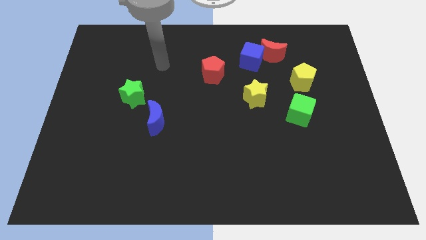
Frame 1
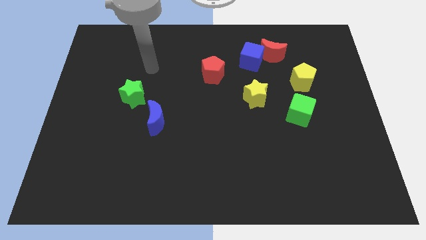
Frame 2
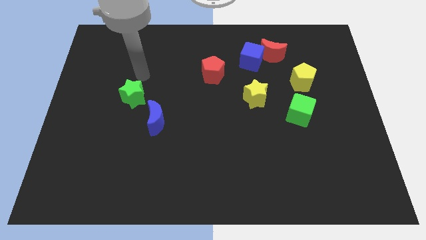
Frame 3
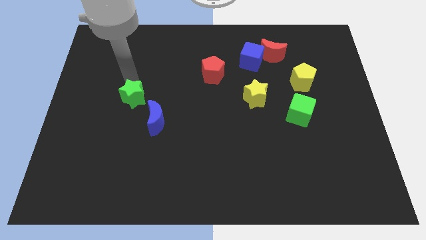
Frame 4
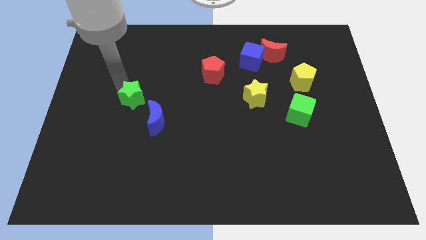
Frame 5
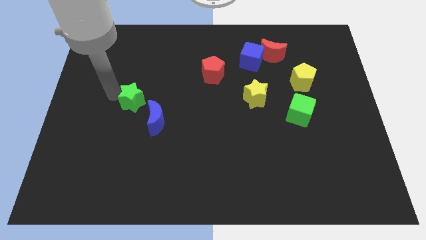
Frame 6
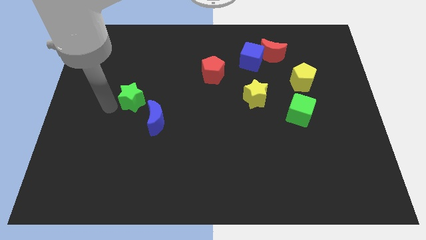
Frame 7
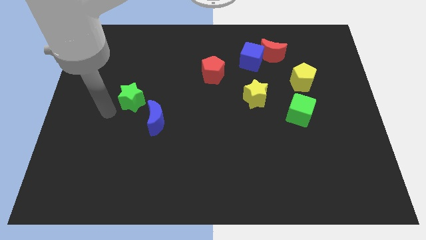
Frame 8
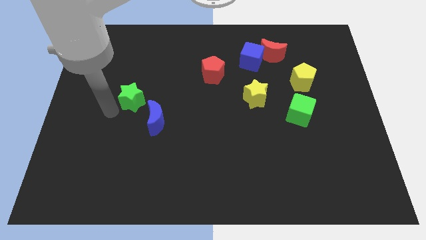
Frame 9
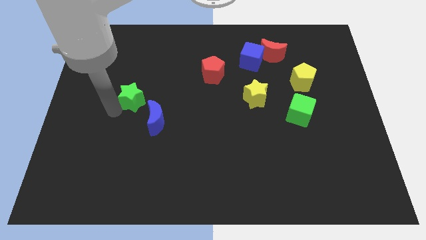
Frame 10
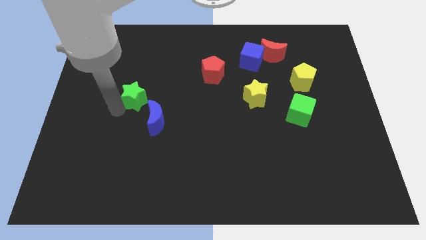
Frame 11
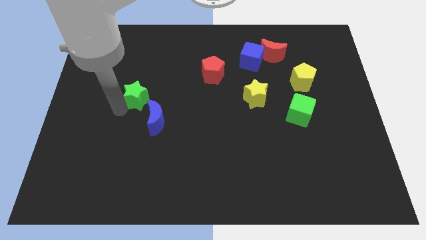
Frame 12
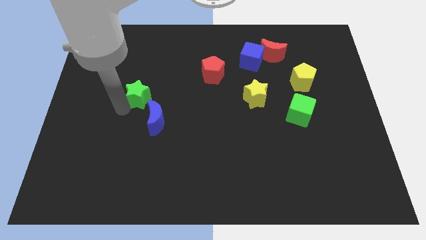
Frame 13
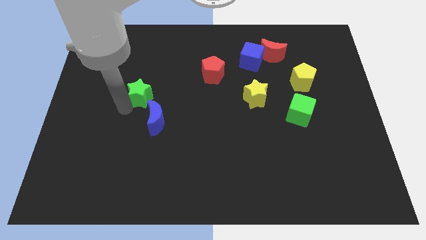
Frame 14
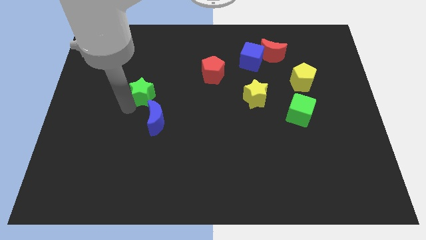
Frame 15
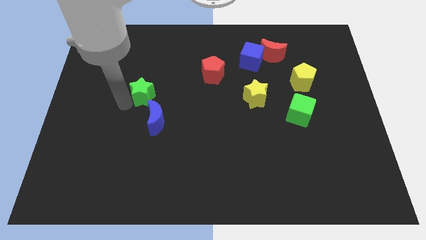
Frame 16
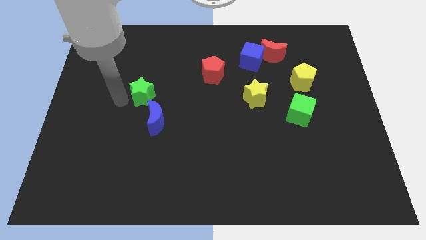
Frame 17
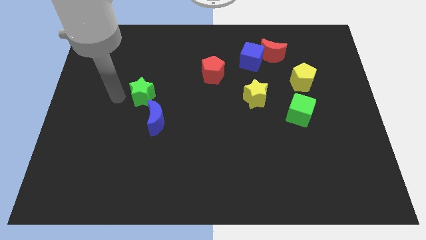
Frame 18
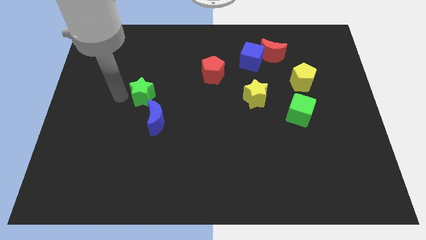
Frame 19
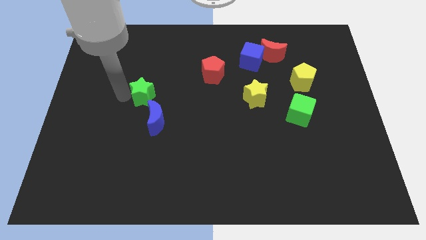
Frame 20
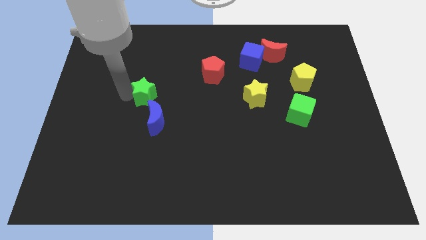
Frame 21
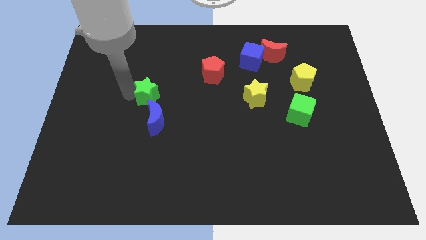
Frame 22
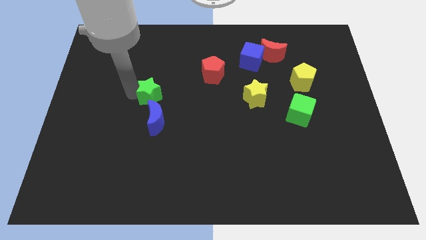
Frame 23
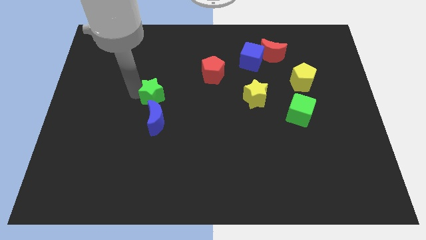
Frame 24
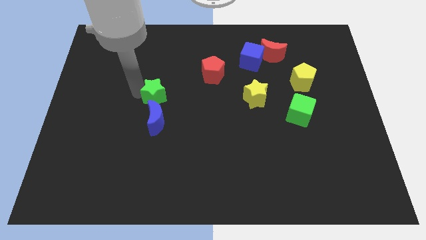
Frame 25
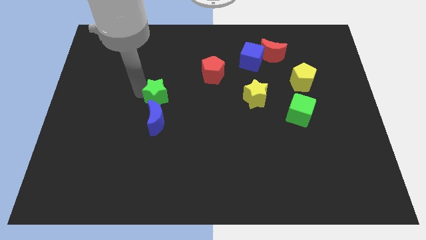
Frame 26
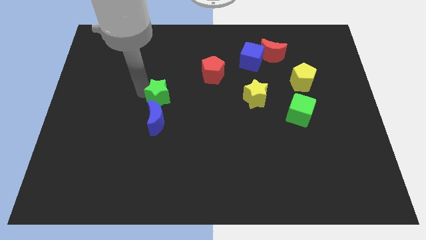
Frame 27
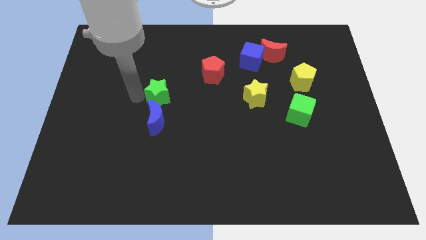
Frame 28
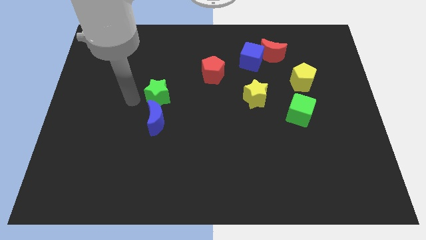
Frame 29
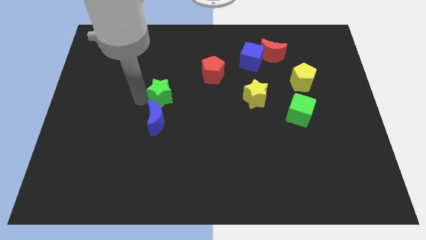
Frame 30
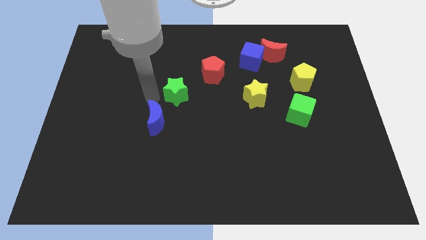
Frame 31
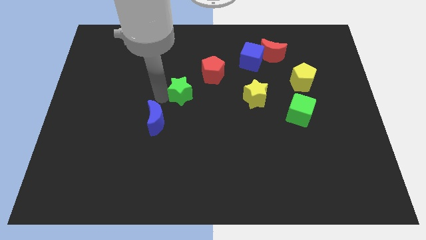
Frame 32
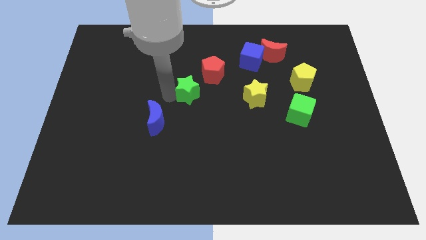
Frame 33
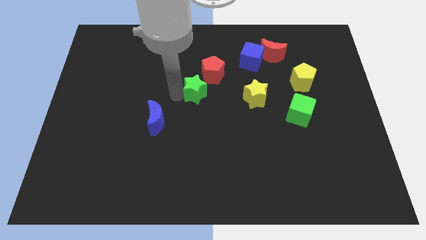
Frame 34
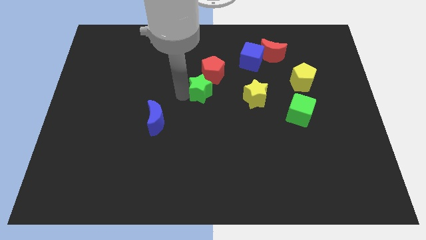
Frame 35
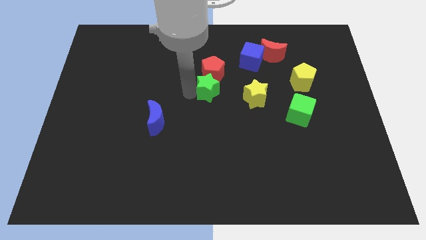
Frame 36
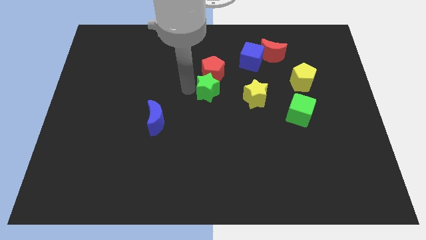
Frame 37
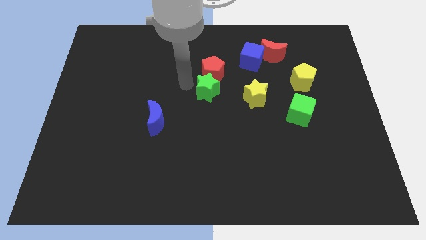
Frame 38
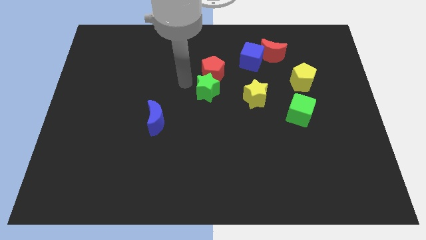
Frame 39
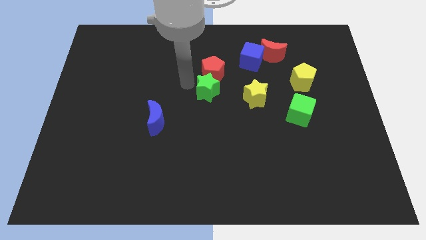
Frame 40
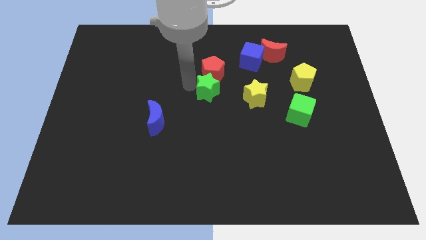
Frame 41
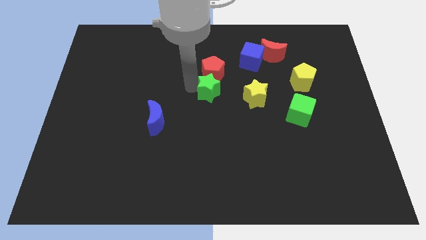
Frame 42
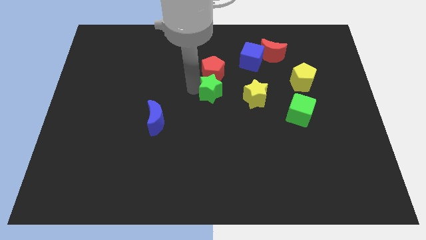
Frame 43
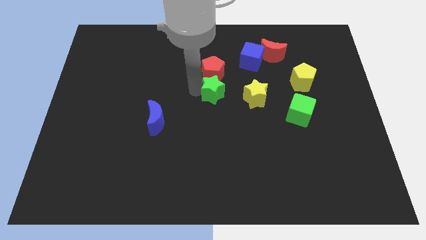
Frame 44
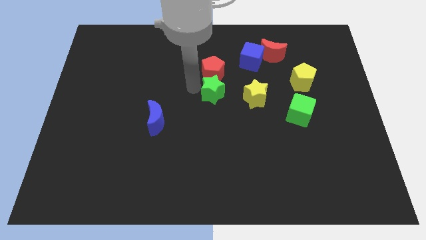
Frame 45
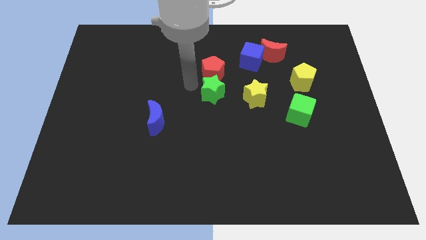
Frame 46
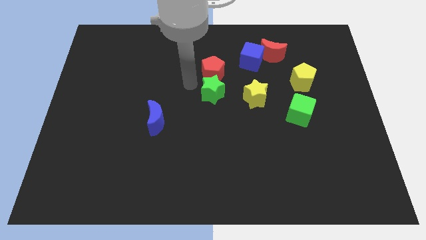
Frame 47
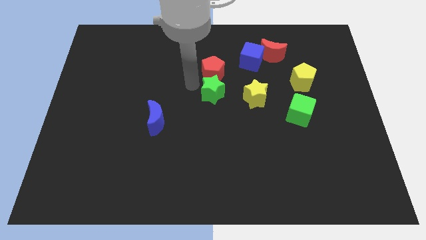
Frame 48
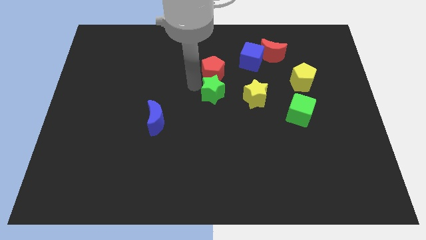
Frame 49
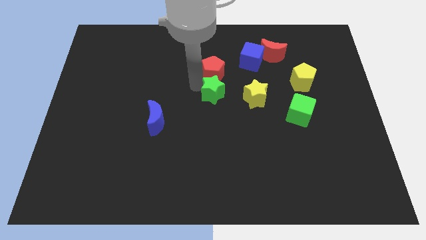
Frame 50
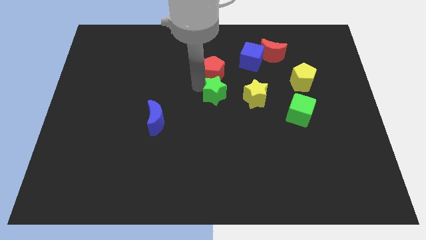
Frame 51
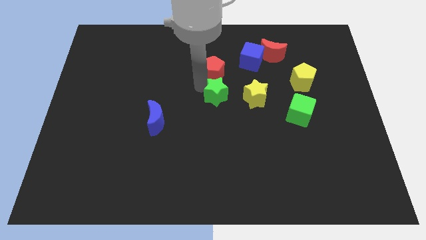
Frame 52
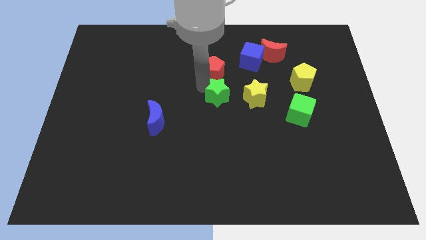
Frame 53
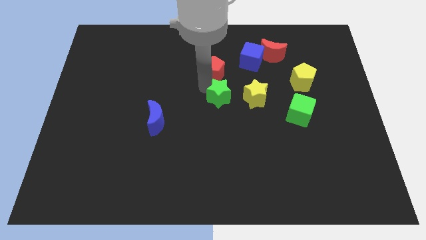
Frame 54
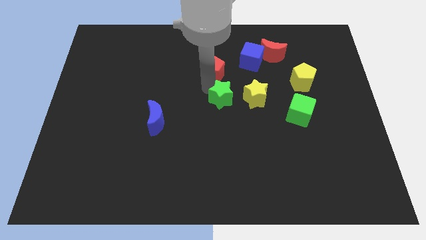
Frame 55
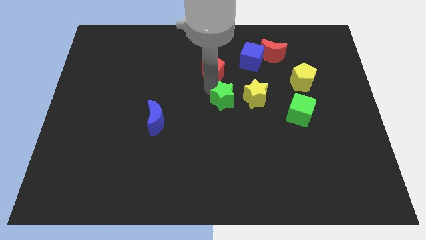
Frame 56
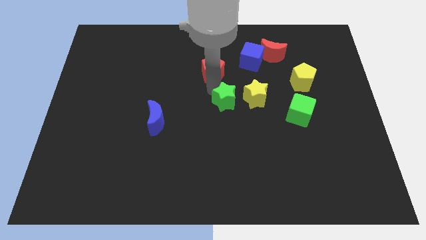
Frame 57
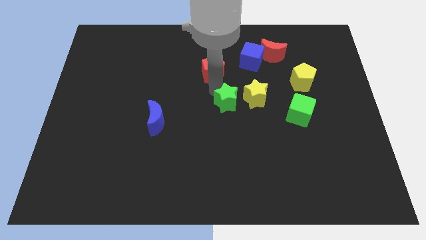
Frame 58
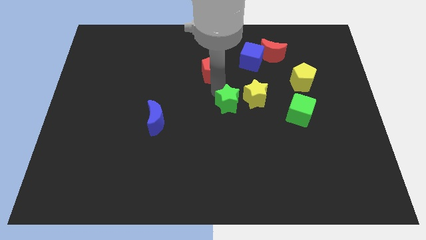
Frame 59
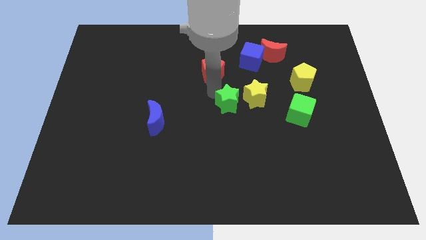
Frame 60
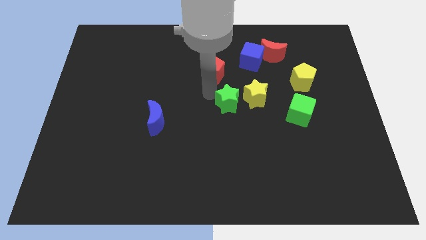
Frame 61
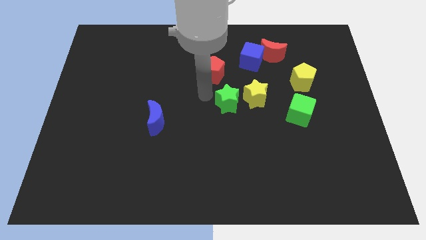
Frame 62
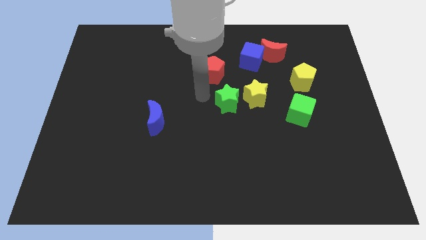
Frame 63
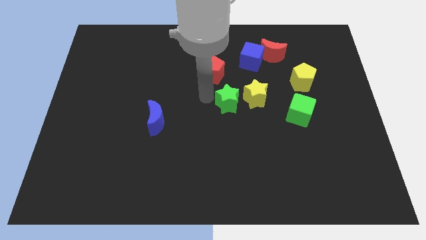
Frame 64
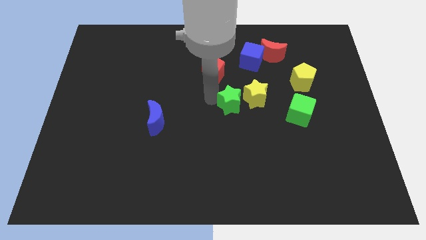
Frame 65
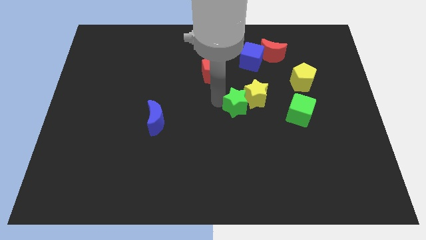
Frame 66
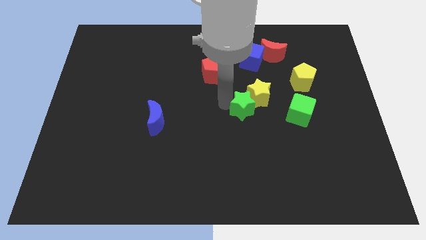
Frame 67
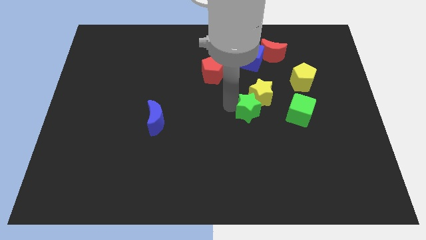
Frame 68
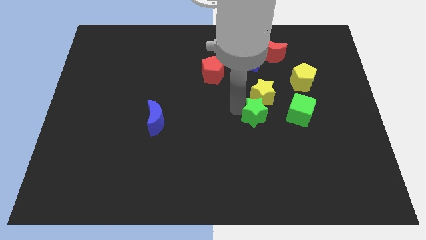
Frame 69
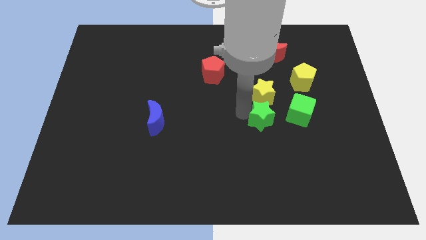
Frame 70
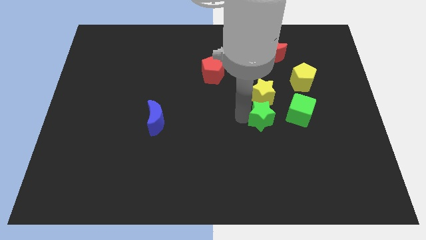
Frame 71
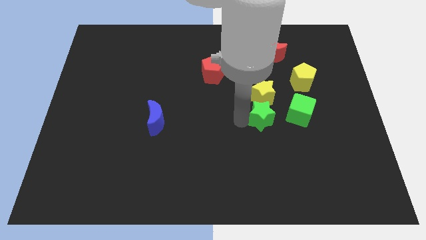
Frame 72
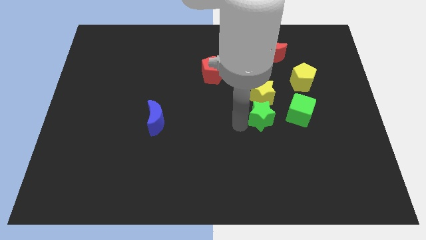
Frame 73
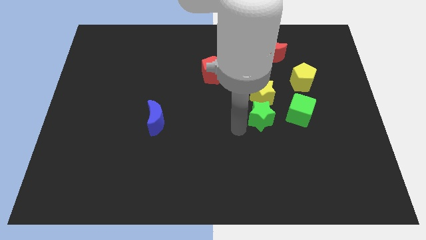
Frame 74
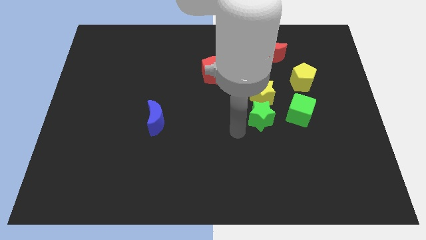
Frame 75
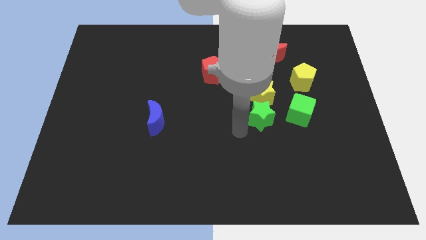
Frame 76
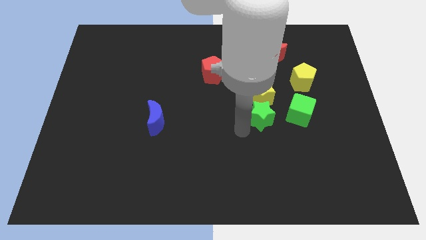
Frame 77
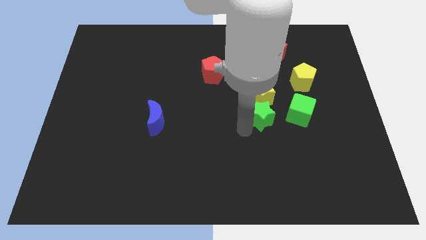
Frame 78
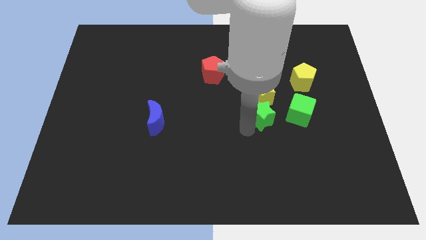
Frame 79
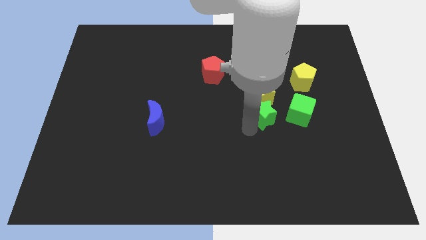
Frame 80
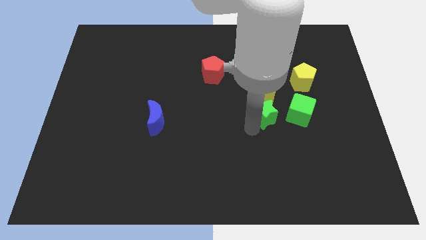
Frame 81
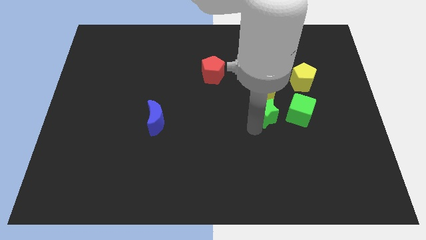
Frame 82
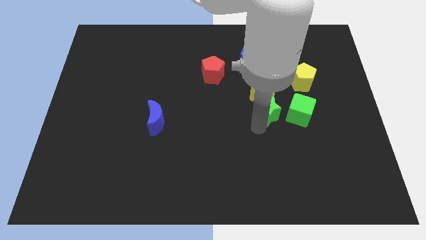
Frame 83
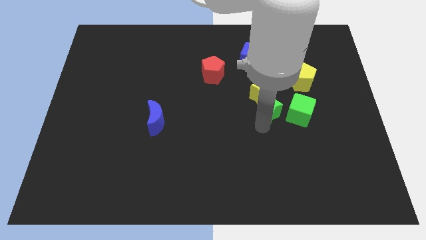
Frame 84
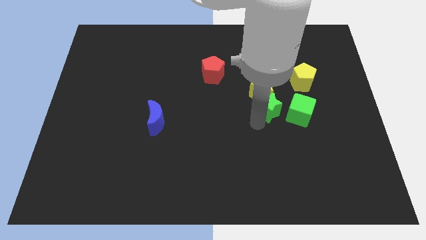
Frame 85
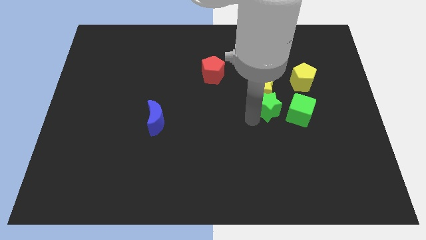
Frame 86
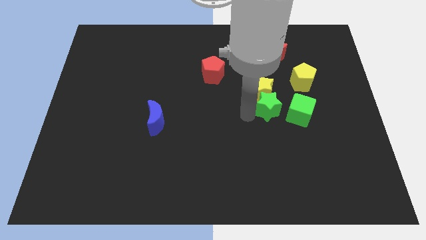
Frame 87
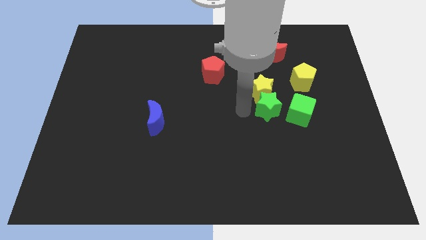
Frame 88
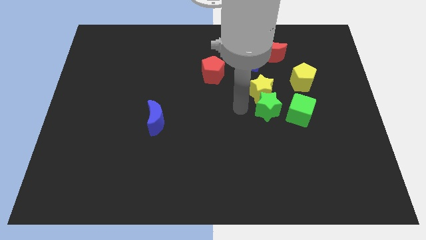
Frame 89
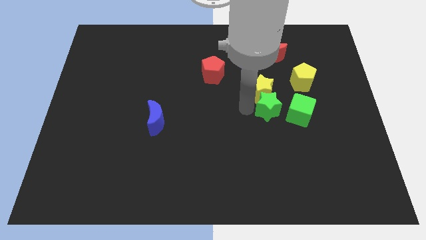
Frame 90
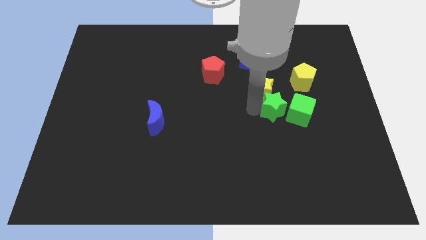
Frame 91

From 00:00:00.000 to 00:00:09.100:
push the green star to the green cube
